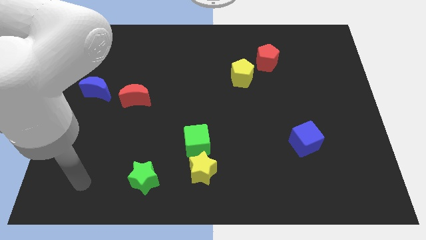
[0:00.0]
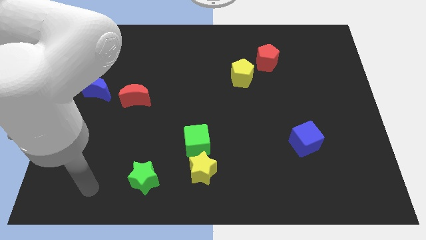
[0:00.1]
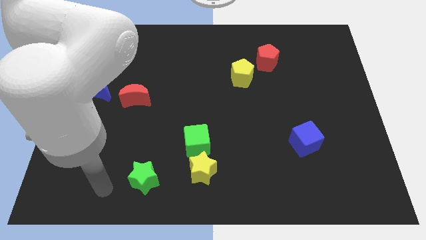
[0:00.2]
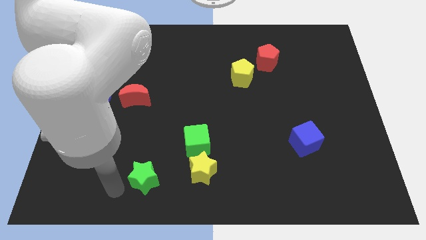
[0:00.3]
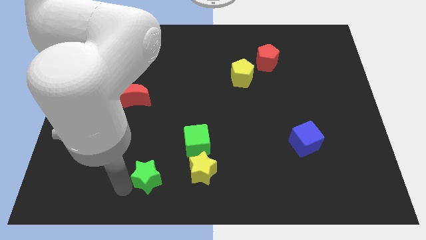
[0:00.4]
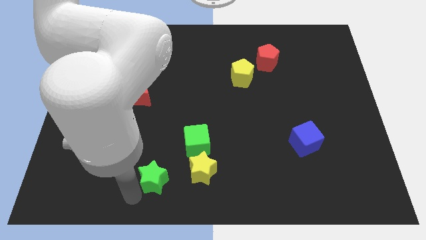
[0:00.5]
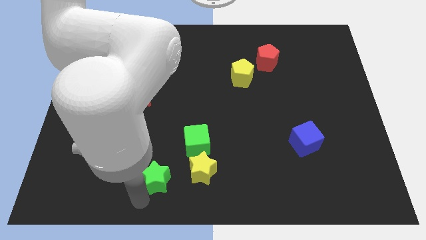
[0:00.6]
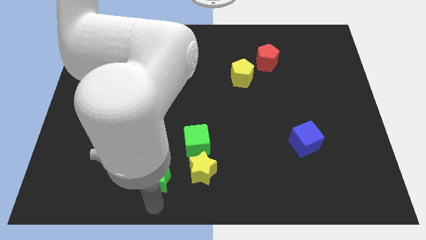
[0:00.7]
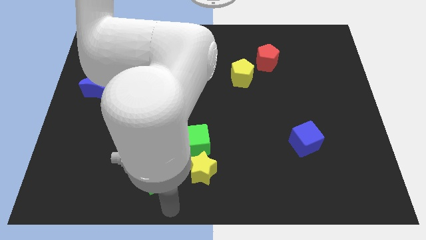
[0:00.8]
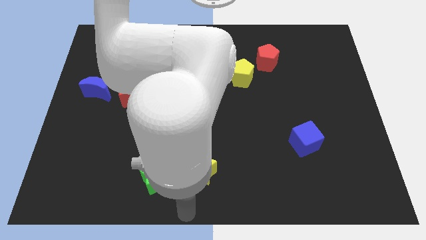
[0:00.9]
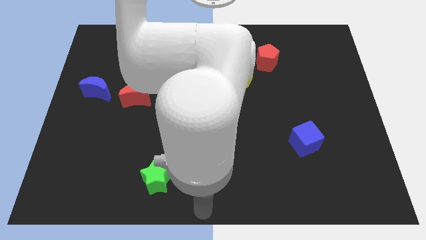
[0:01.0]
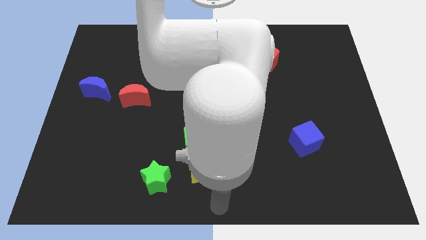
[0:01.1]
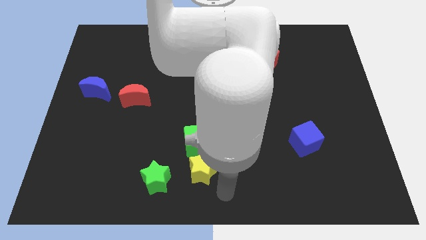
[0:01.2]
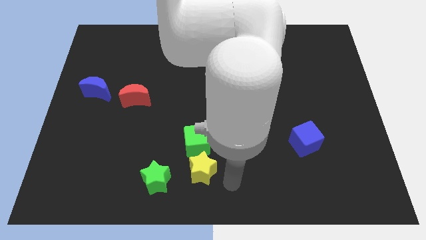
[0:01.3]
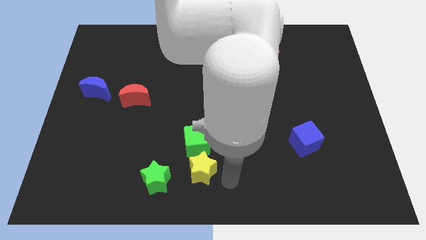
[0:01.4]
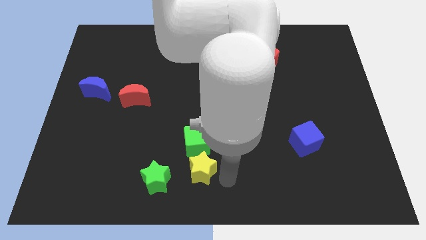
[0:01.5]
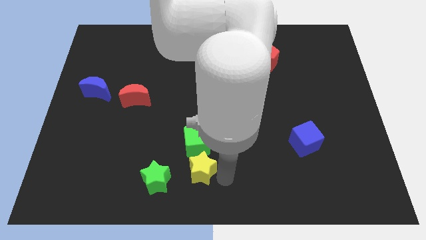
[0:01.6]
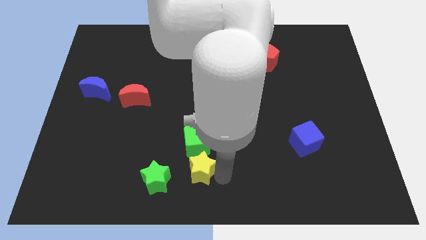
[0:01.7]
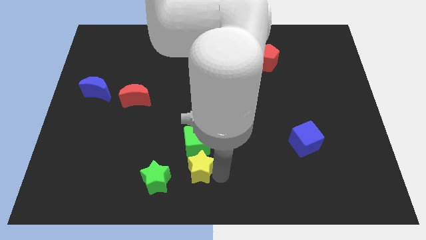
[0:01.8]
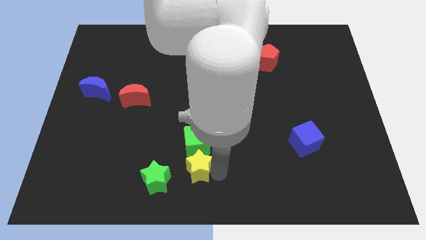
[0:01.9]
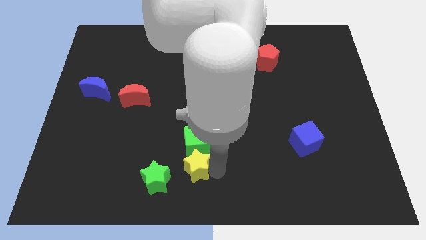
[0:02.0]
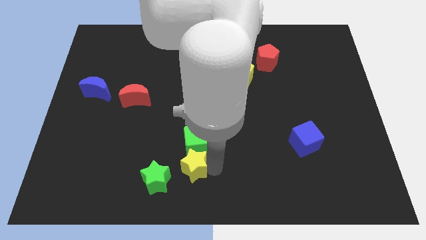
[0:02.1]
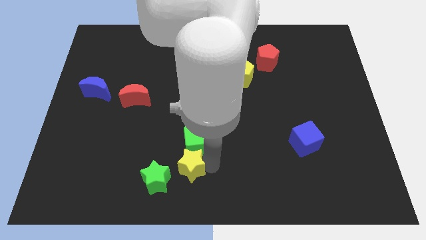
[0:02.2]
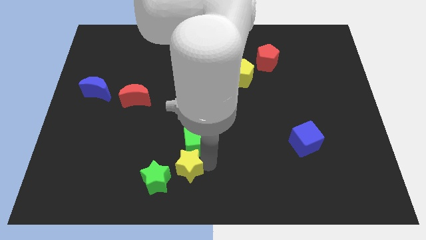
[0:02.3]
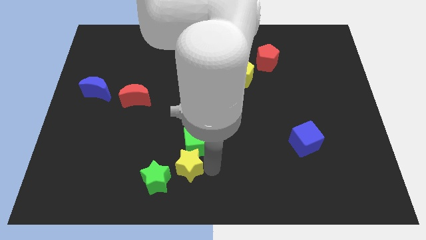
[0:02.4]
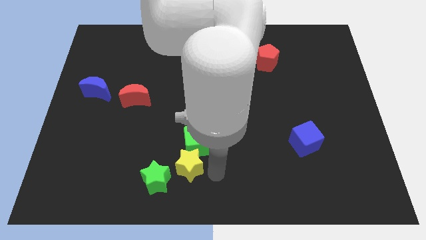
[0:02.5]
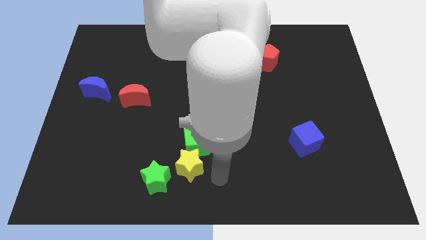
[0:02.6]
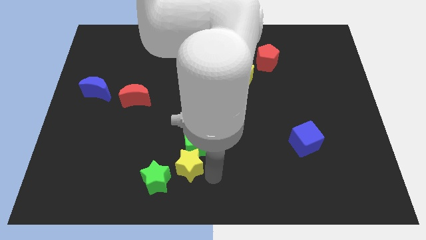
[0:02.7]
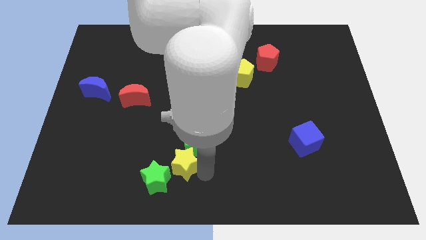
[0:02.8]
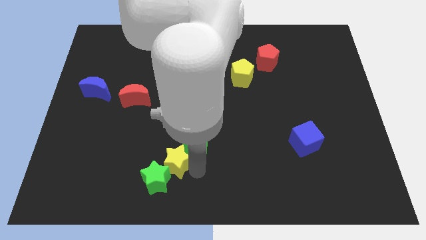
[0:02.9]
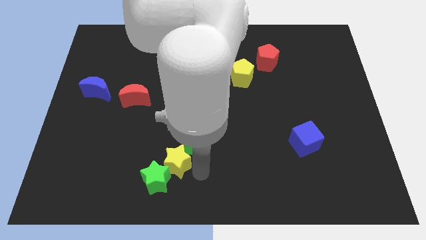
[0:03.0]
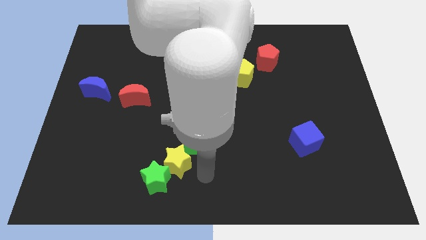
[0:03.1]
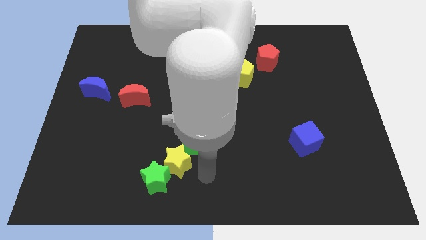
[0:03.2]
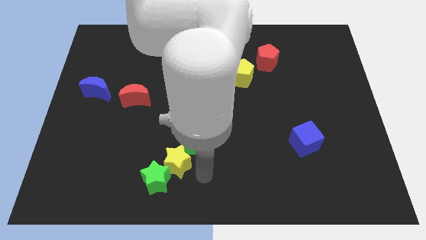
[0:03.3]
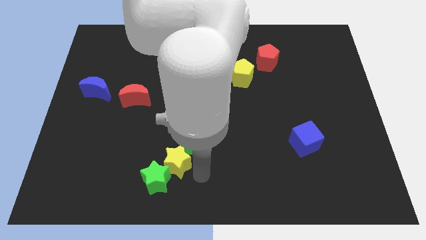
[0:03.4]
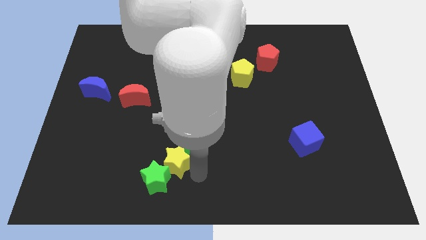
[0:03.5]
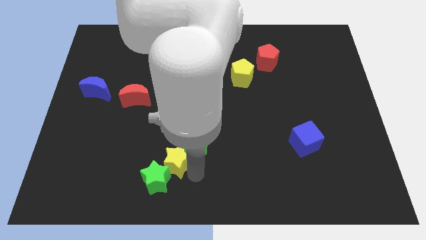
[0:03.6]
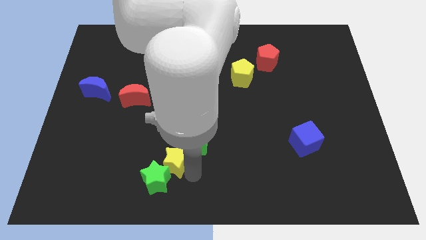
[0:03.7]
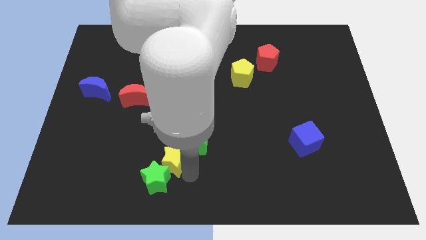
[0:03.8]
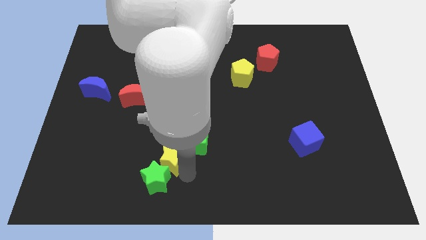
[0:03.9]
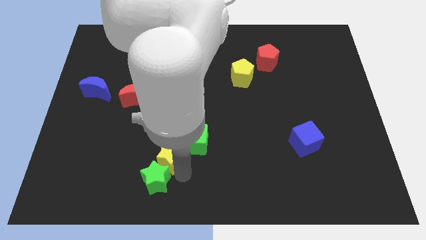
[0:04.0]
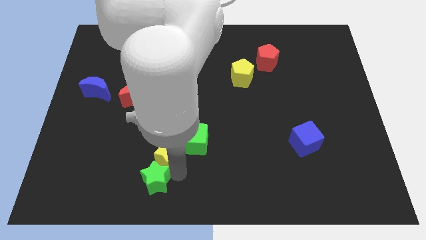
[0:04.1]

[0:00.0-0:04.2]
push the yellow star somewhat to the left

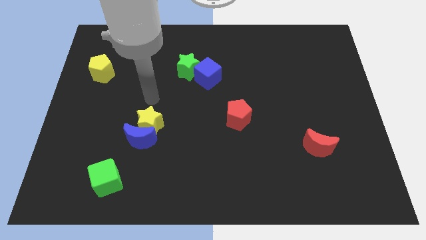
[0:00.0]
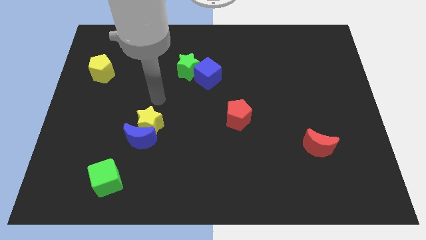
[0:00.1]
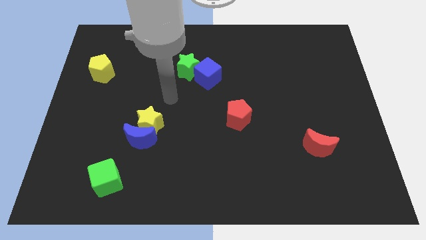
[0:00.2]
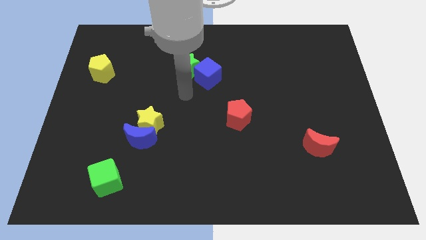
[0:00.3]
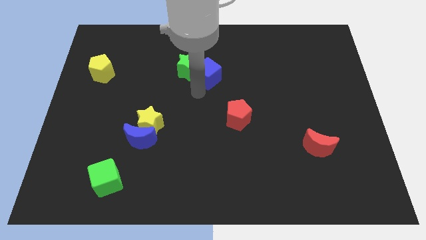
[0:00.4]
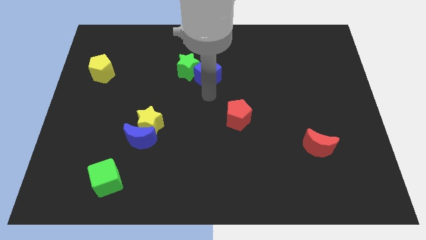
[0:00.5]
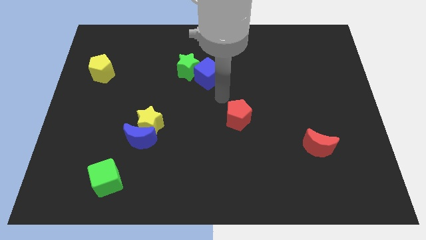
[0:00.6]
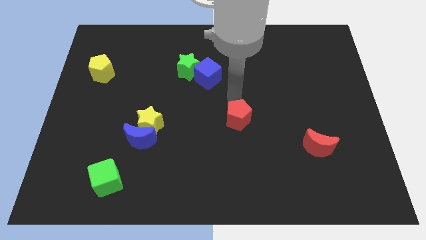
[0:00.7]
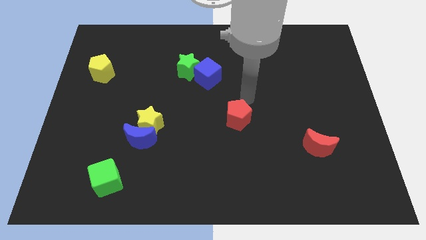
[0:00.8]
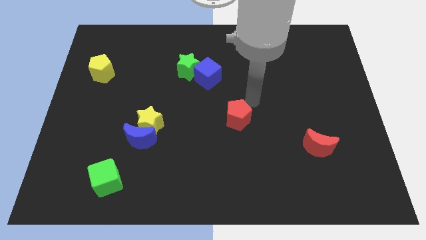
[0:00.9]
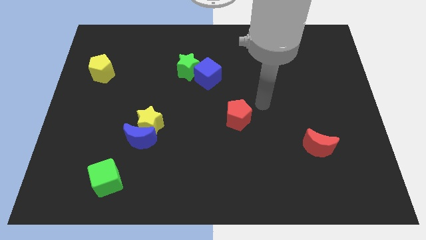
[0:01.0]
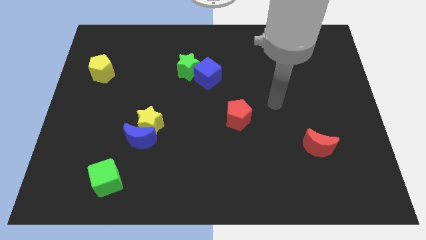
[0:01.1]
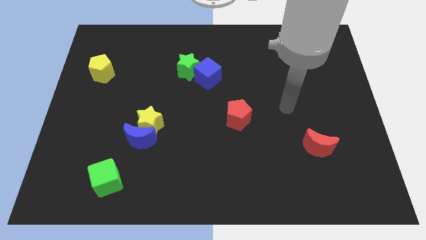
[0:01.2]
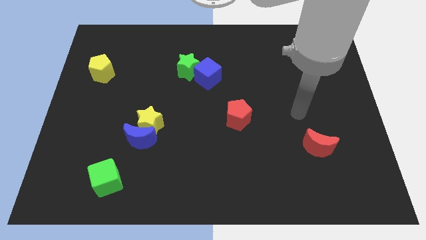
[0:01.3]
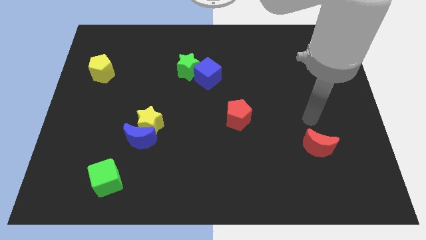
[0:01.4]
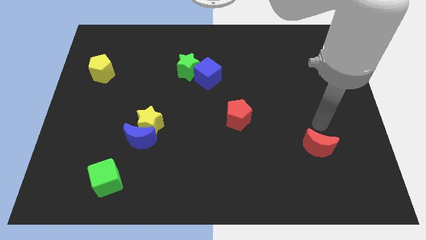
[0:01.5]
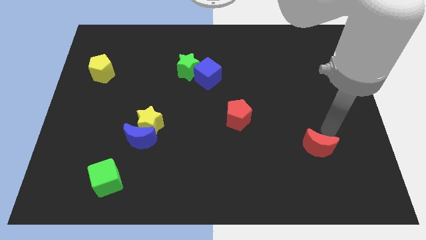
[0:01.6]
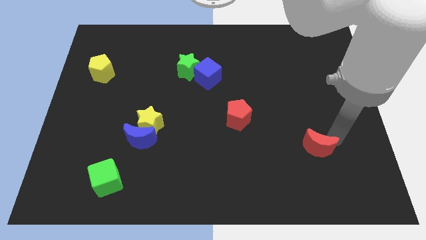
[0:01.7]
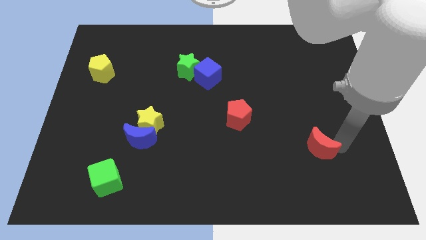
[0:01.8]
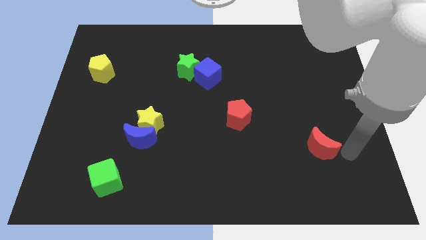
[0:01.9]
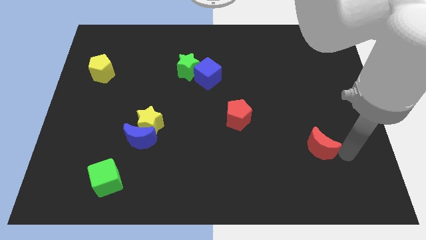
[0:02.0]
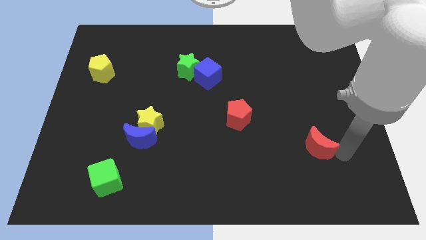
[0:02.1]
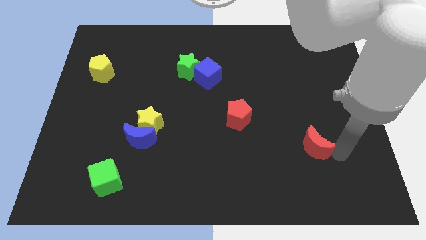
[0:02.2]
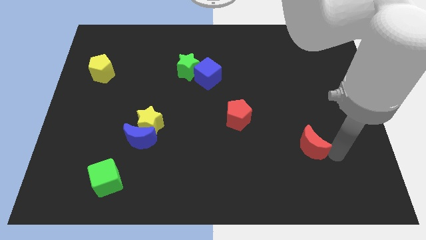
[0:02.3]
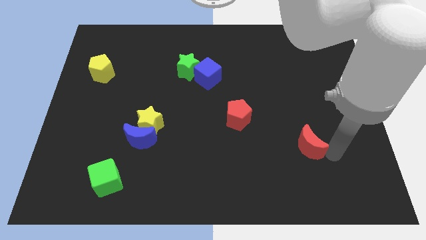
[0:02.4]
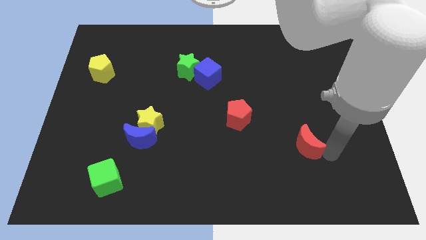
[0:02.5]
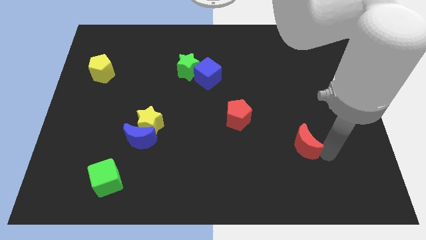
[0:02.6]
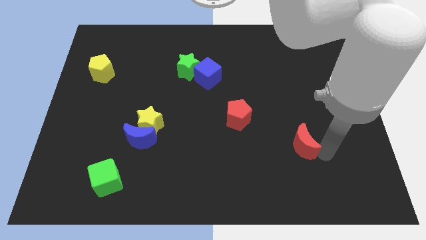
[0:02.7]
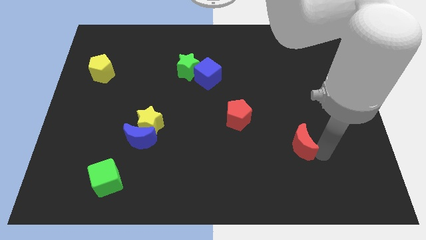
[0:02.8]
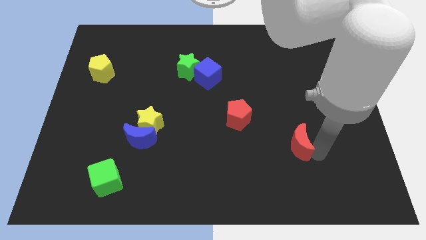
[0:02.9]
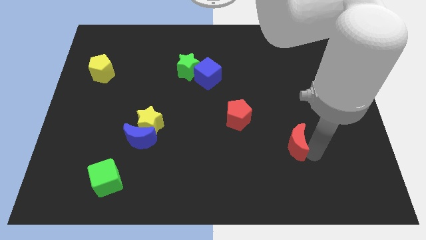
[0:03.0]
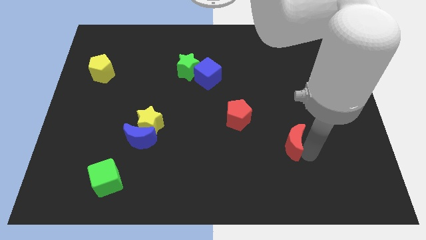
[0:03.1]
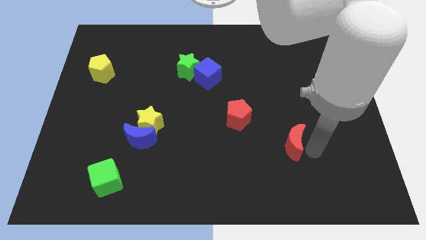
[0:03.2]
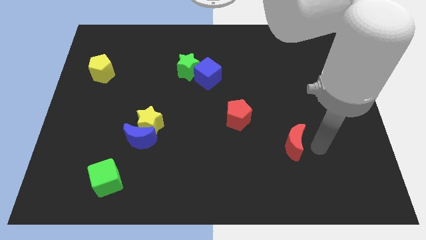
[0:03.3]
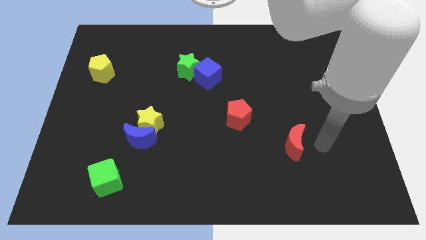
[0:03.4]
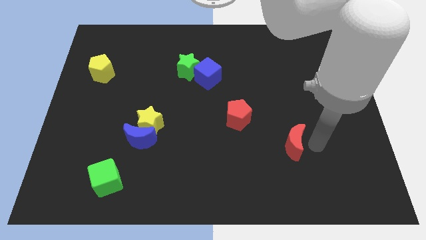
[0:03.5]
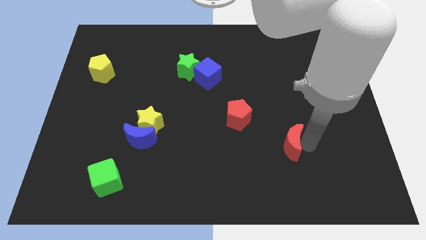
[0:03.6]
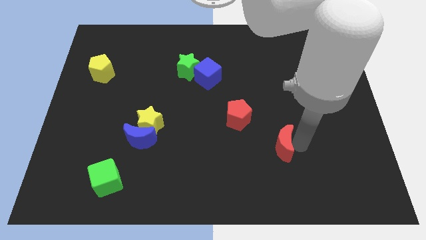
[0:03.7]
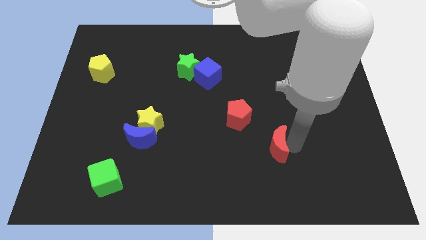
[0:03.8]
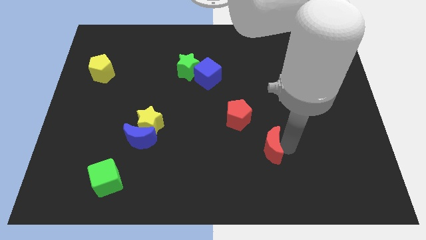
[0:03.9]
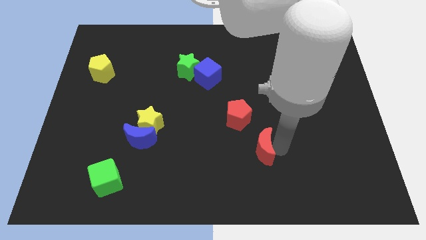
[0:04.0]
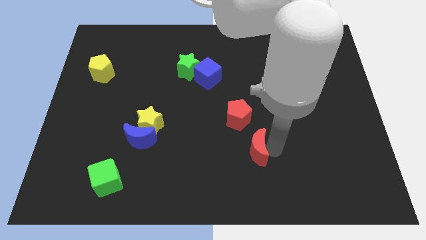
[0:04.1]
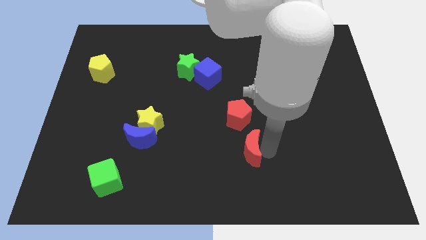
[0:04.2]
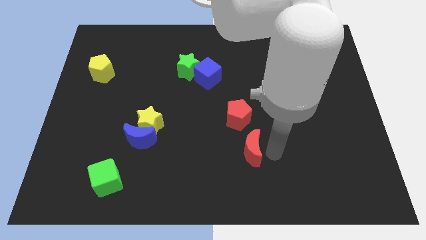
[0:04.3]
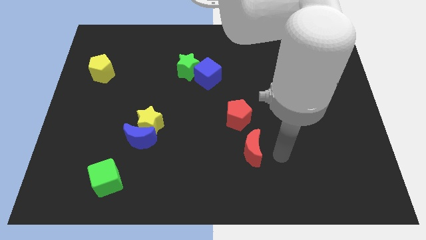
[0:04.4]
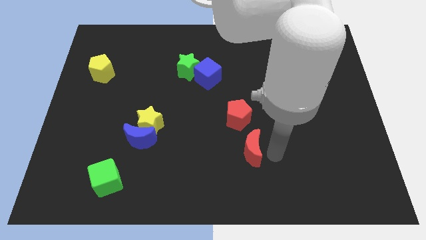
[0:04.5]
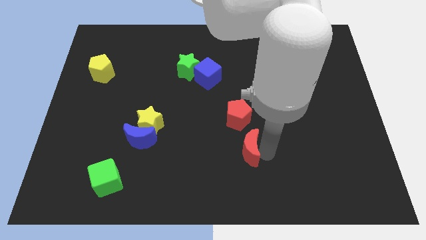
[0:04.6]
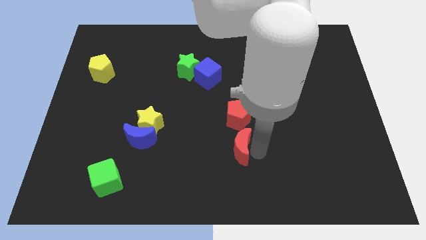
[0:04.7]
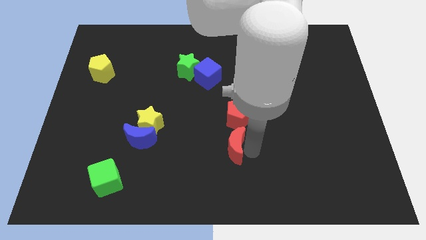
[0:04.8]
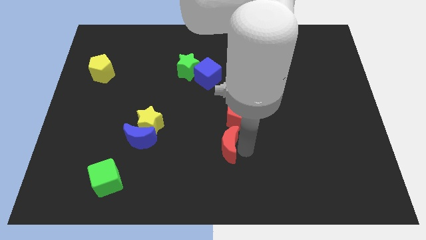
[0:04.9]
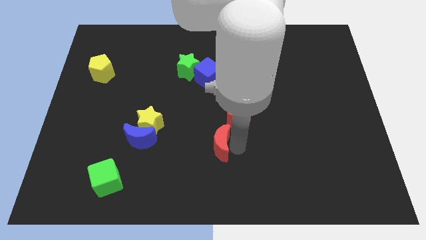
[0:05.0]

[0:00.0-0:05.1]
push the red moon to the left
